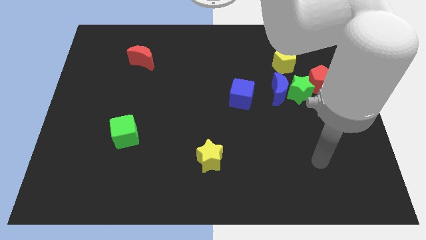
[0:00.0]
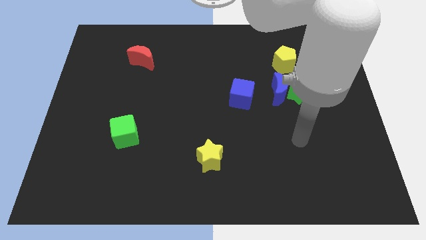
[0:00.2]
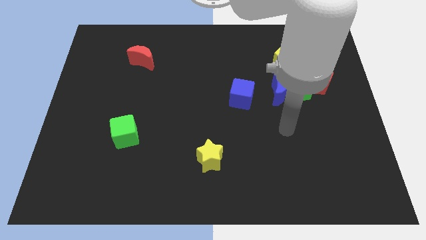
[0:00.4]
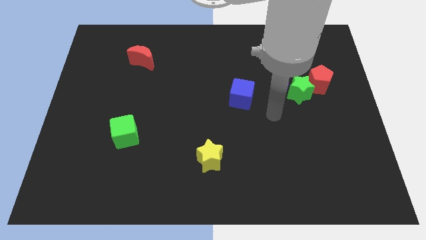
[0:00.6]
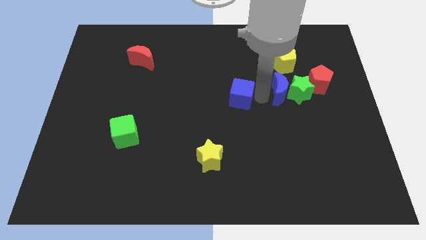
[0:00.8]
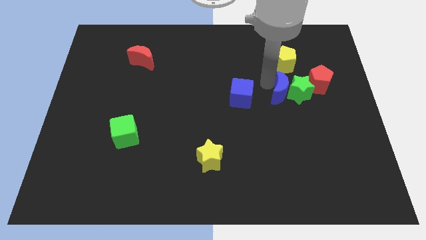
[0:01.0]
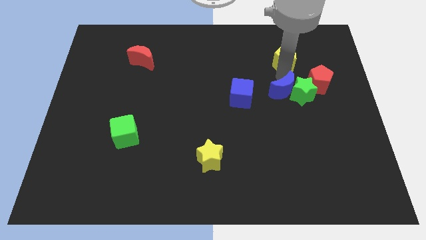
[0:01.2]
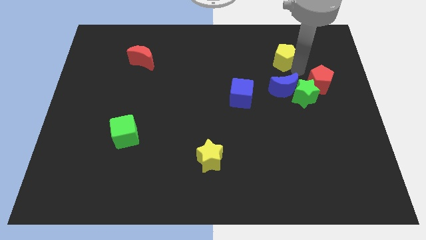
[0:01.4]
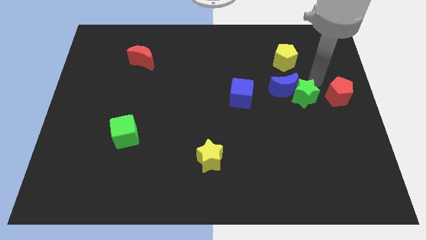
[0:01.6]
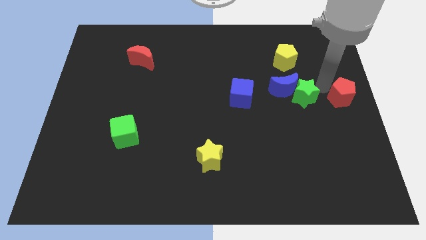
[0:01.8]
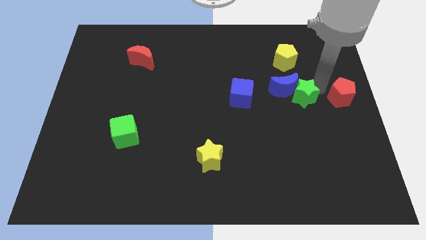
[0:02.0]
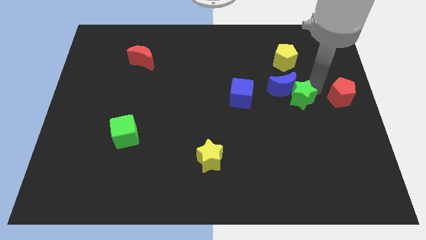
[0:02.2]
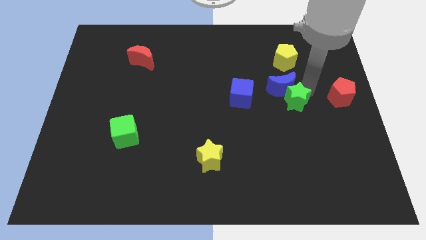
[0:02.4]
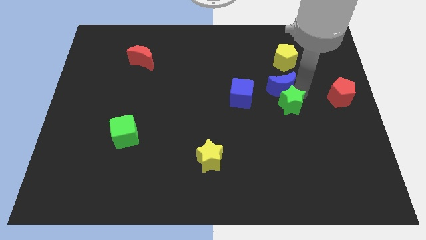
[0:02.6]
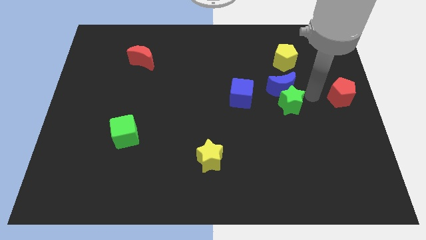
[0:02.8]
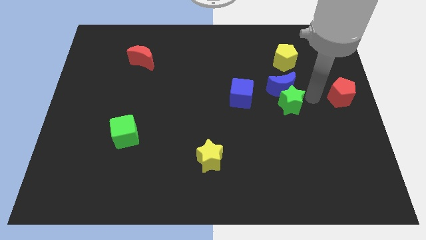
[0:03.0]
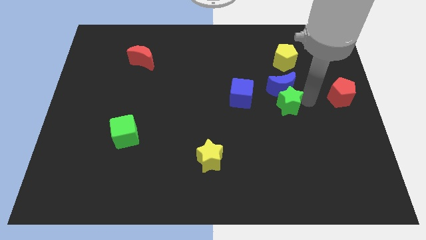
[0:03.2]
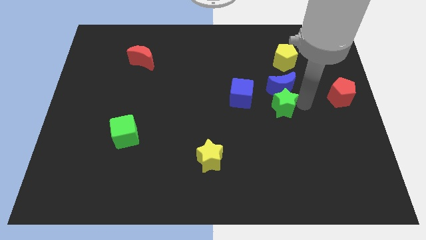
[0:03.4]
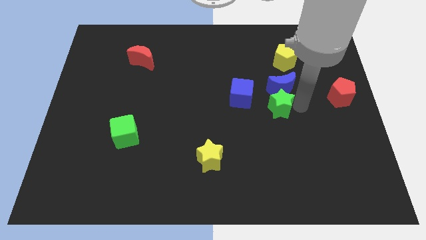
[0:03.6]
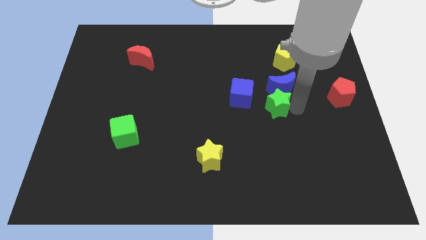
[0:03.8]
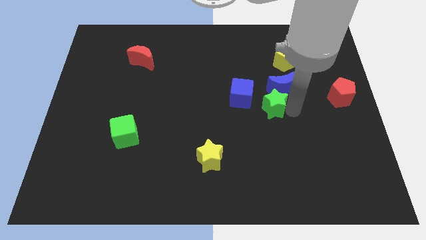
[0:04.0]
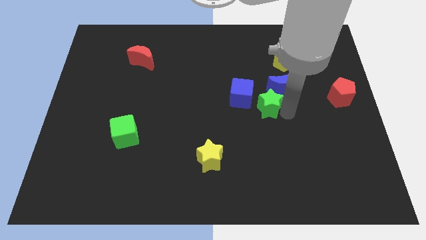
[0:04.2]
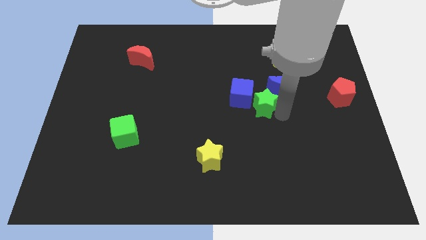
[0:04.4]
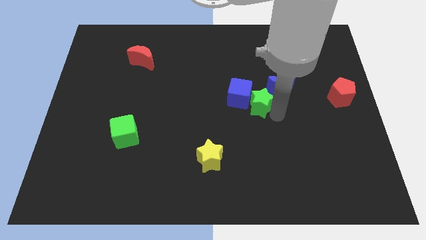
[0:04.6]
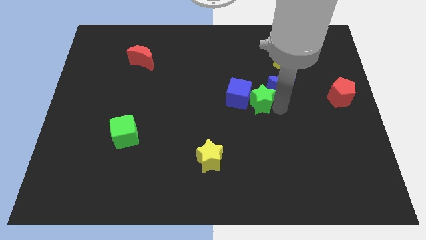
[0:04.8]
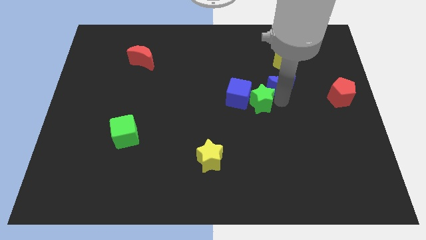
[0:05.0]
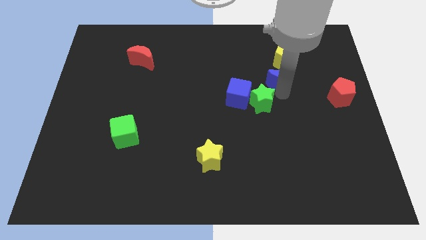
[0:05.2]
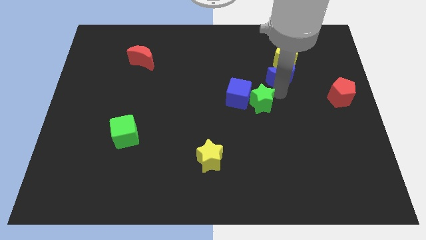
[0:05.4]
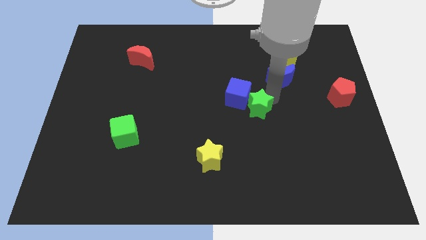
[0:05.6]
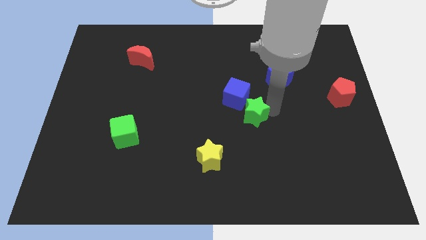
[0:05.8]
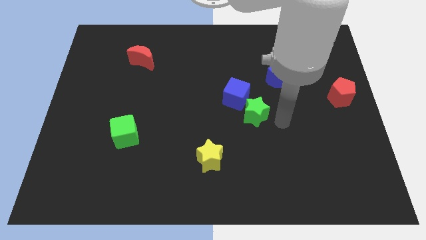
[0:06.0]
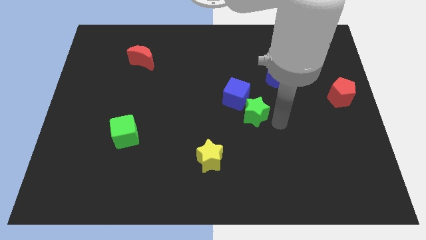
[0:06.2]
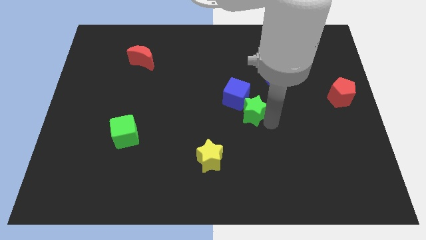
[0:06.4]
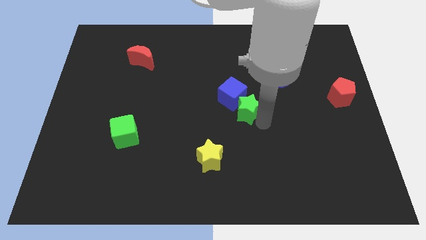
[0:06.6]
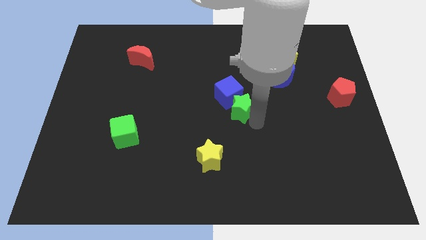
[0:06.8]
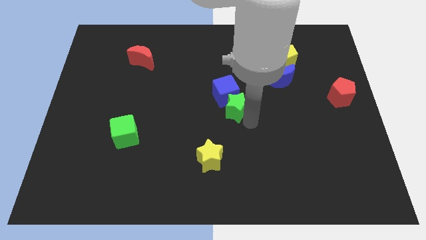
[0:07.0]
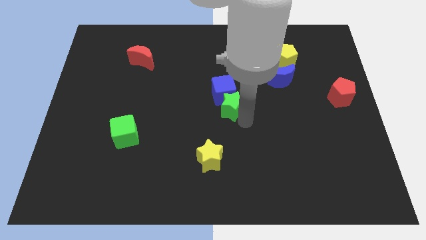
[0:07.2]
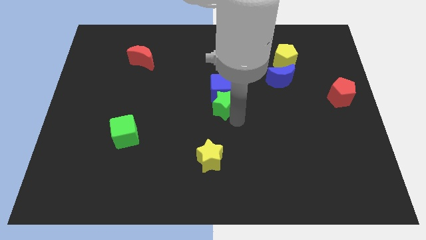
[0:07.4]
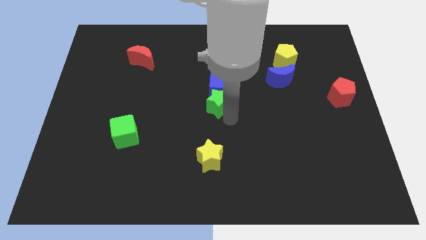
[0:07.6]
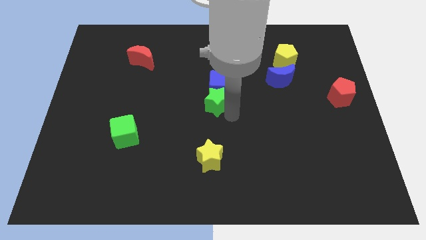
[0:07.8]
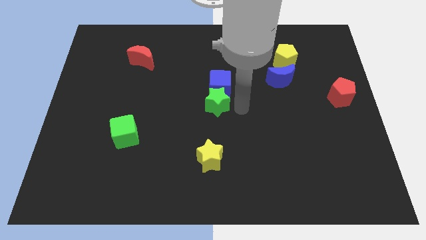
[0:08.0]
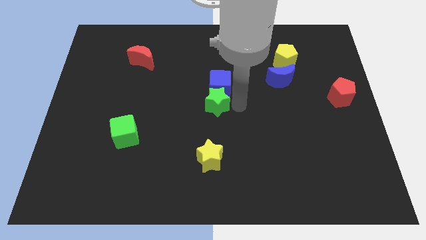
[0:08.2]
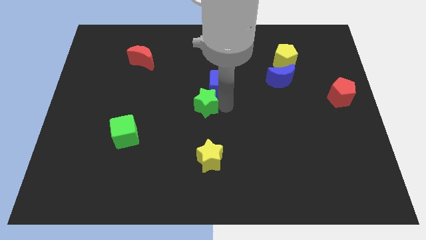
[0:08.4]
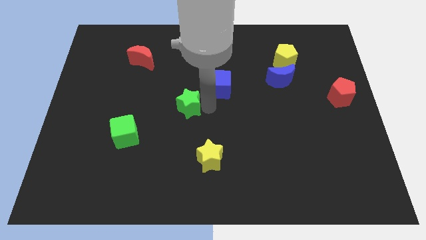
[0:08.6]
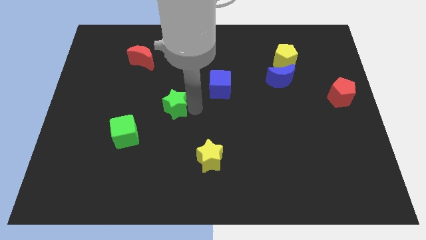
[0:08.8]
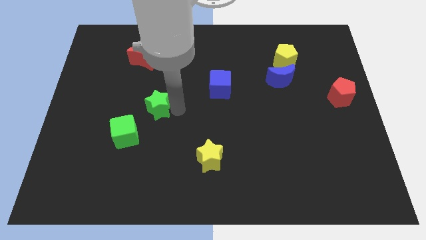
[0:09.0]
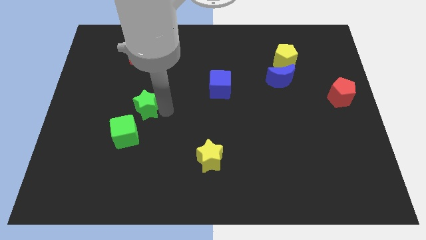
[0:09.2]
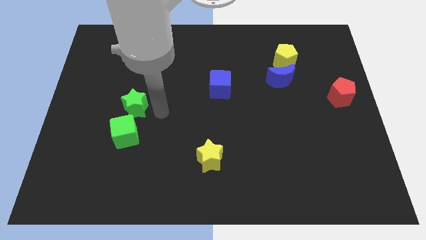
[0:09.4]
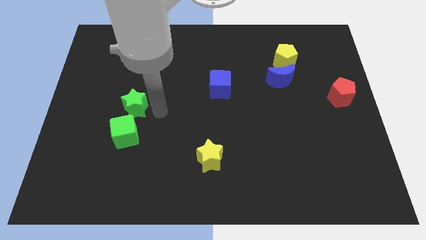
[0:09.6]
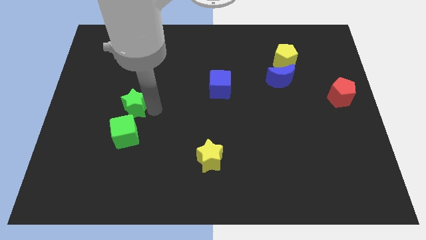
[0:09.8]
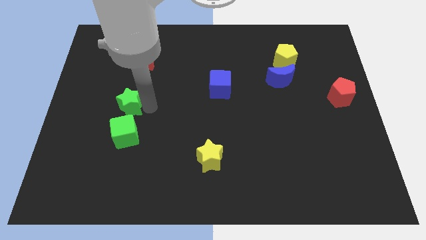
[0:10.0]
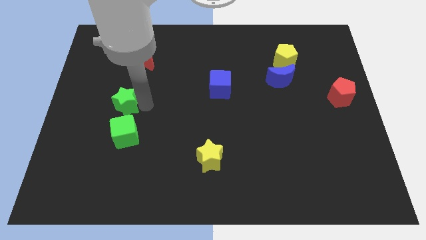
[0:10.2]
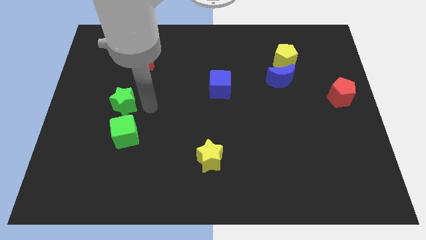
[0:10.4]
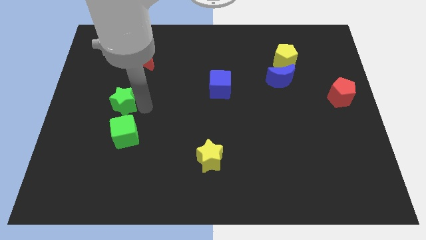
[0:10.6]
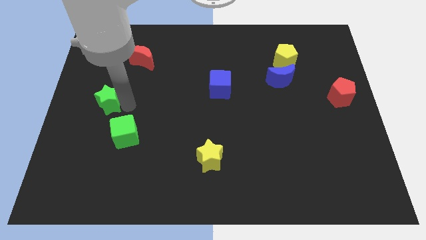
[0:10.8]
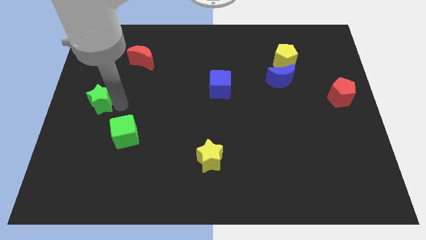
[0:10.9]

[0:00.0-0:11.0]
move the green star to the center left
